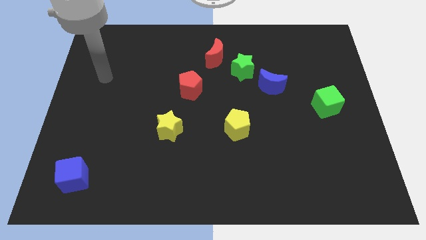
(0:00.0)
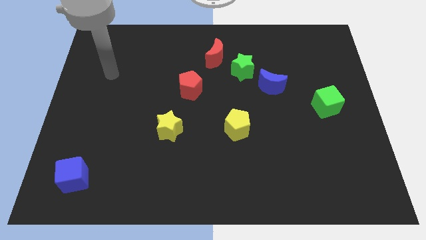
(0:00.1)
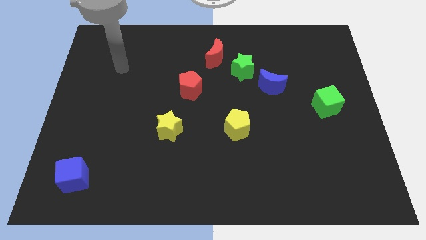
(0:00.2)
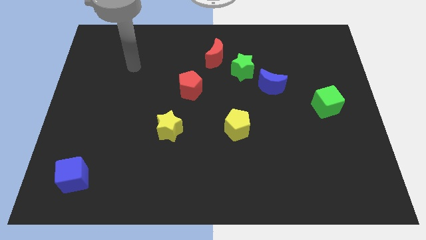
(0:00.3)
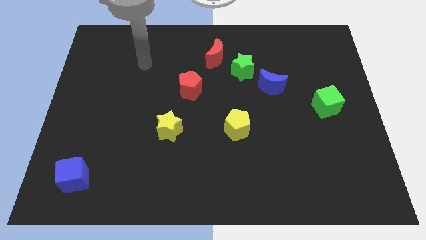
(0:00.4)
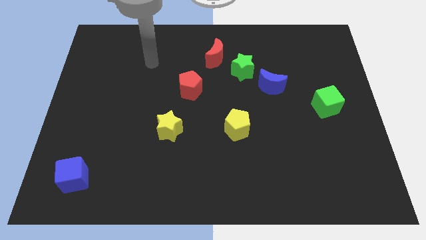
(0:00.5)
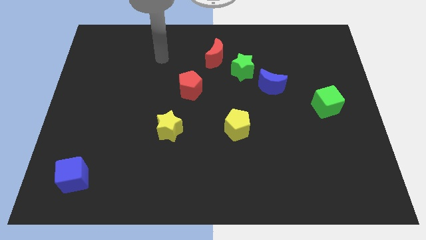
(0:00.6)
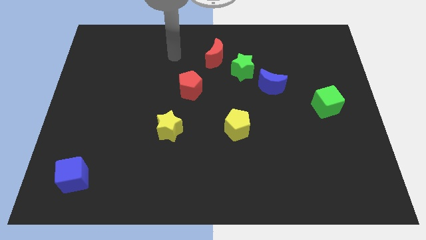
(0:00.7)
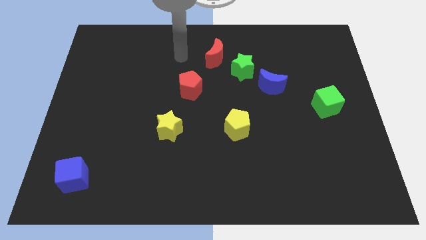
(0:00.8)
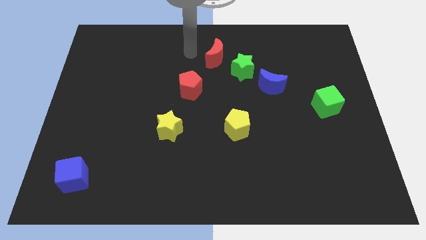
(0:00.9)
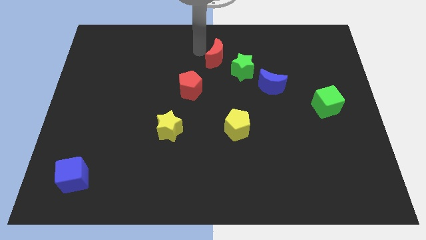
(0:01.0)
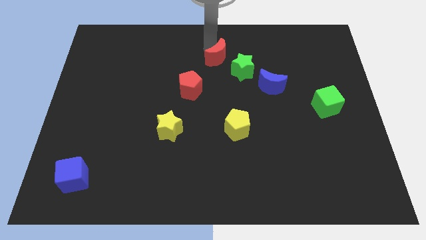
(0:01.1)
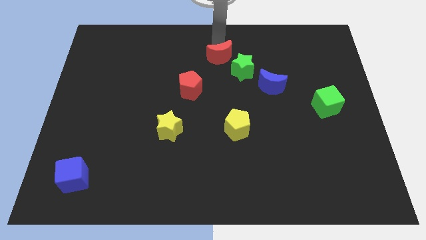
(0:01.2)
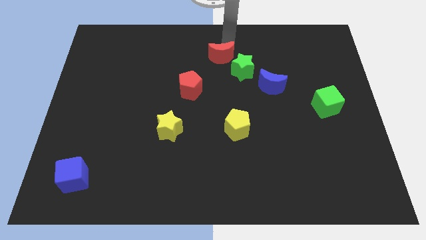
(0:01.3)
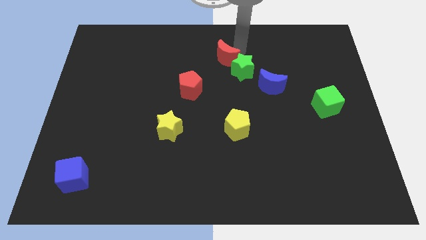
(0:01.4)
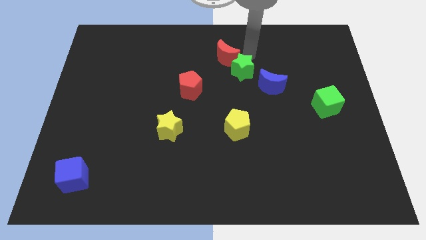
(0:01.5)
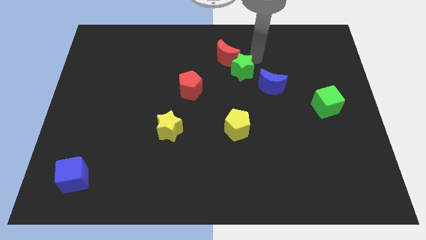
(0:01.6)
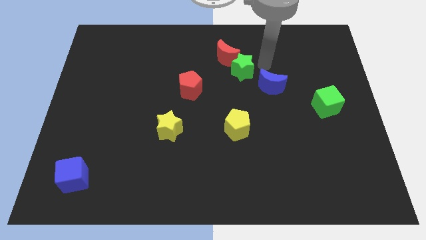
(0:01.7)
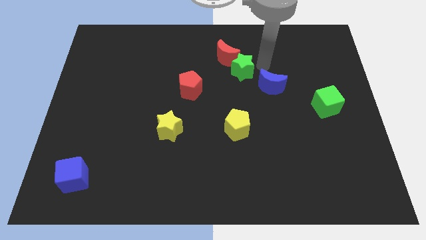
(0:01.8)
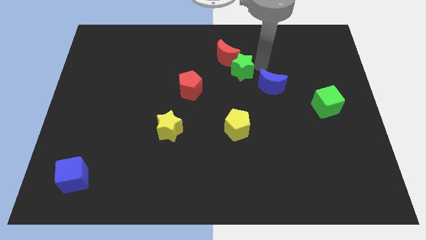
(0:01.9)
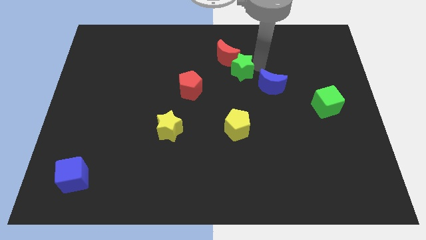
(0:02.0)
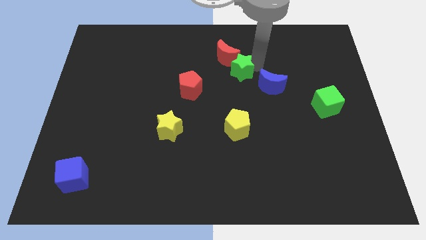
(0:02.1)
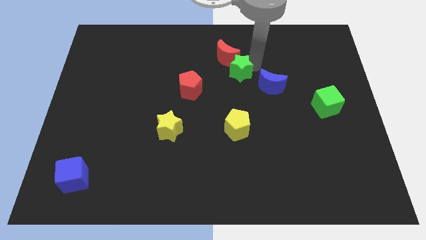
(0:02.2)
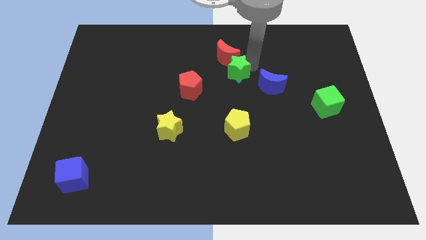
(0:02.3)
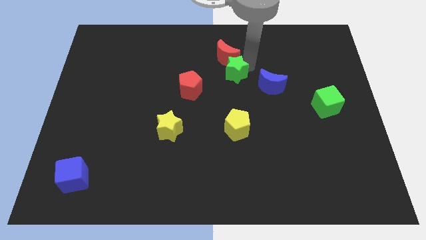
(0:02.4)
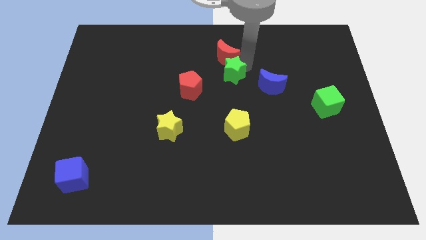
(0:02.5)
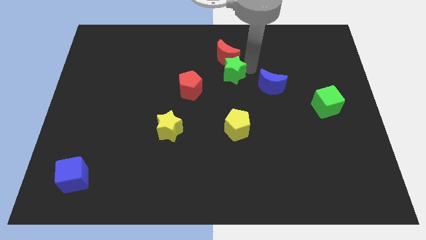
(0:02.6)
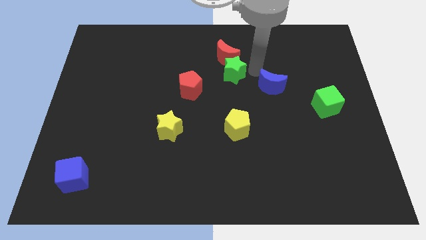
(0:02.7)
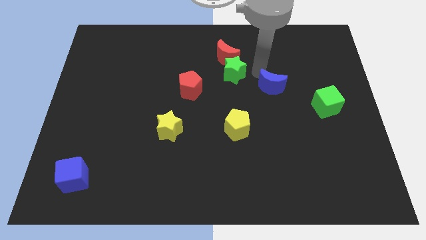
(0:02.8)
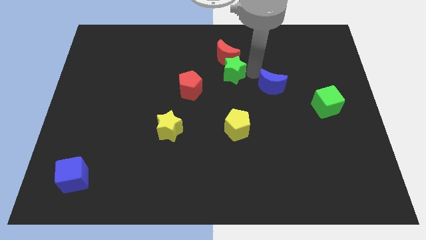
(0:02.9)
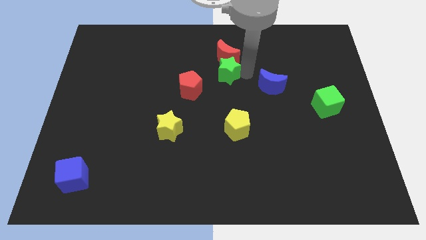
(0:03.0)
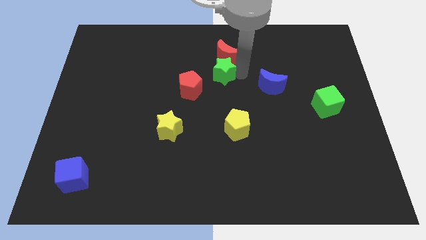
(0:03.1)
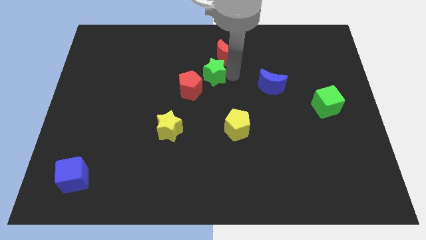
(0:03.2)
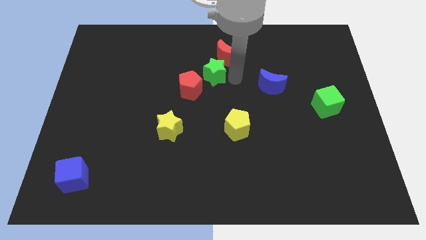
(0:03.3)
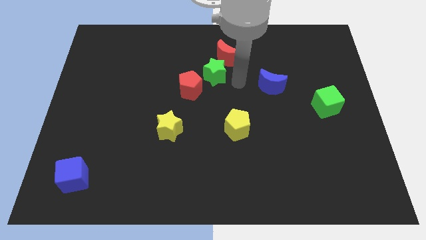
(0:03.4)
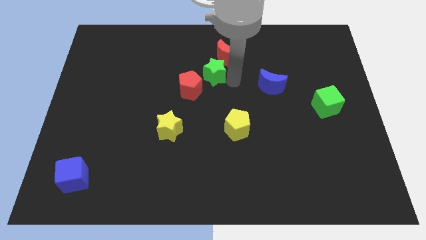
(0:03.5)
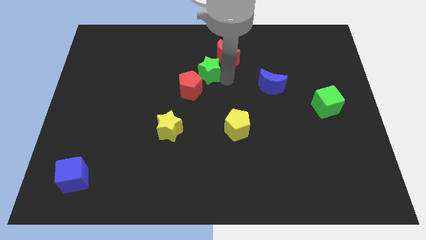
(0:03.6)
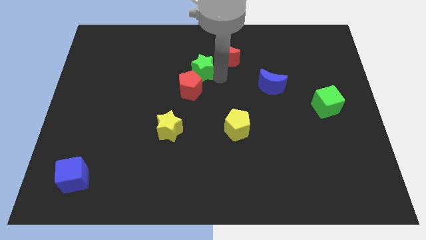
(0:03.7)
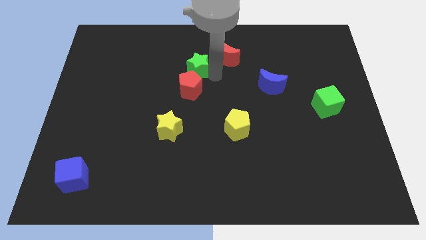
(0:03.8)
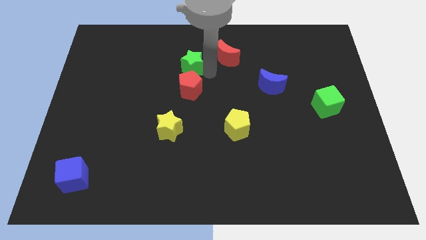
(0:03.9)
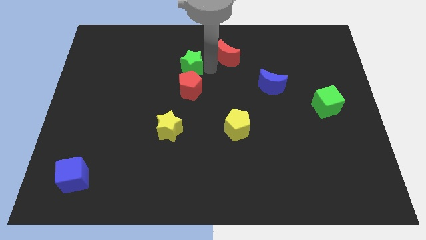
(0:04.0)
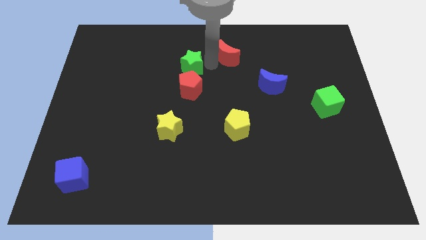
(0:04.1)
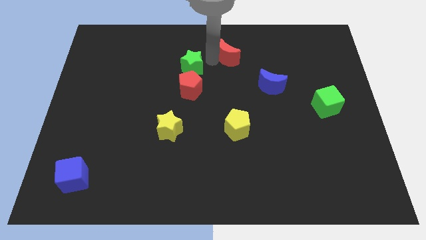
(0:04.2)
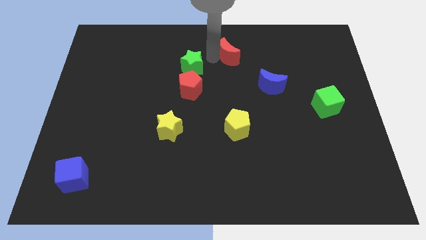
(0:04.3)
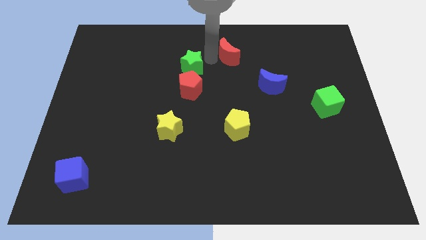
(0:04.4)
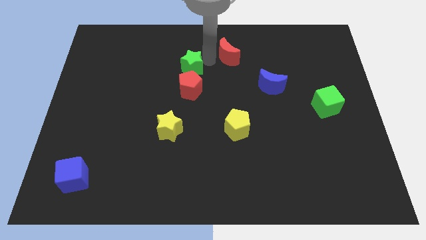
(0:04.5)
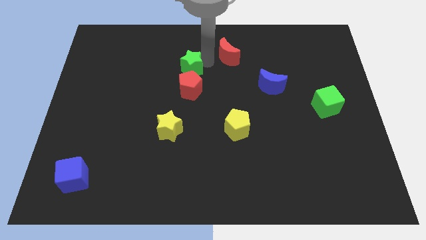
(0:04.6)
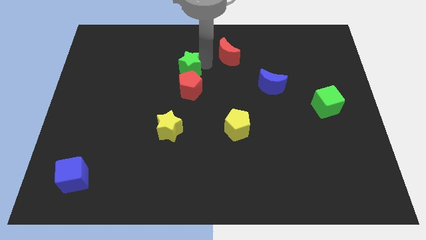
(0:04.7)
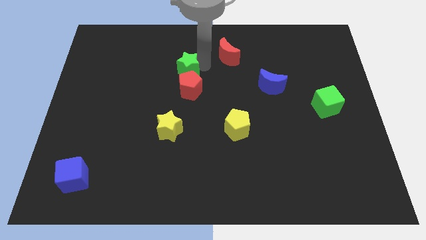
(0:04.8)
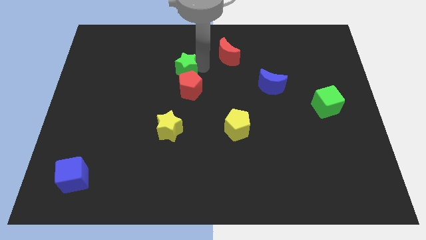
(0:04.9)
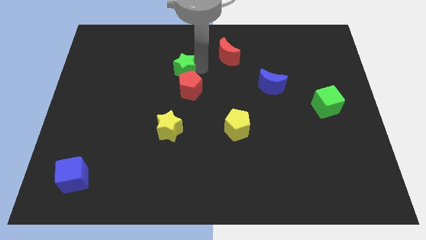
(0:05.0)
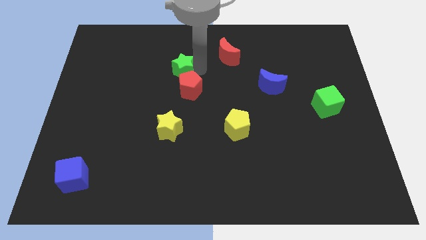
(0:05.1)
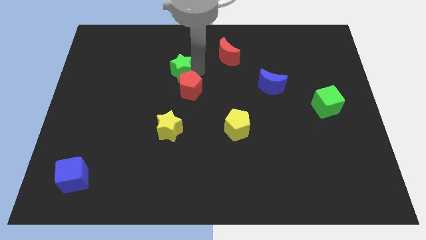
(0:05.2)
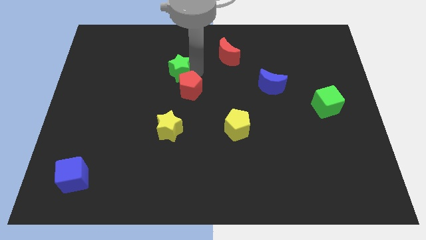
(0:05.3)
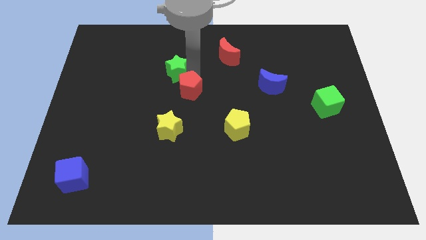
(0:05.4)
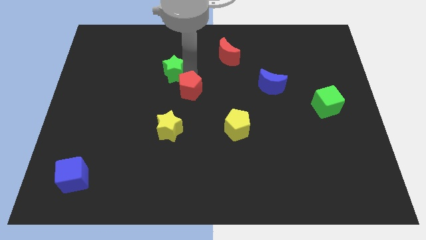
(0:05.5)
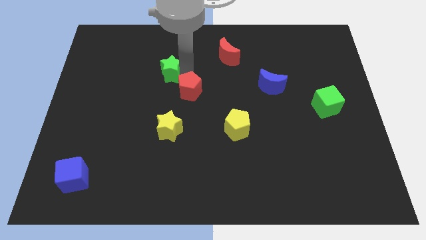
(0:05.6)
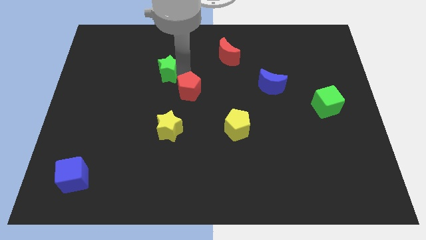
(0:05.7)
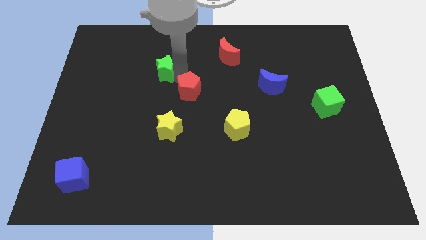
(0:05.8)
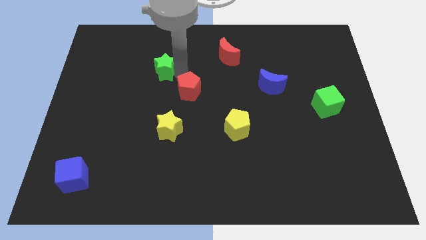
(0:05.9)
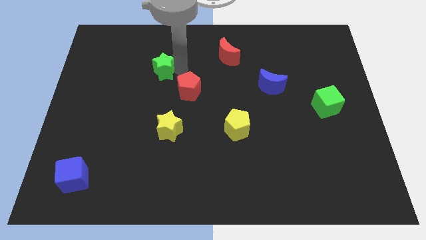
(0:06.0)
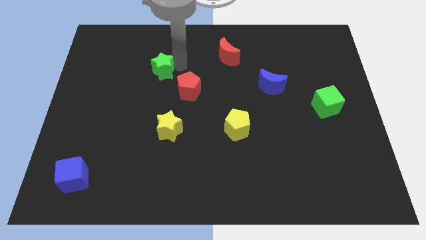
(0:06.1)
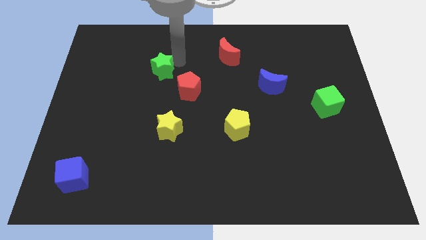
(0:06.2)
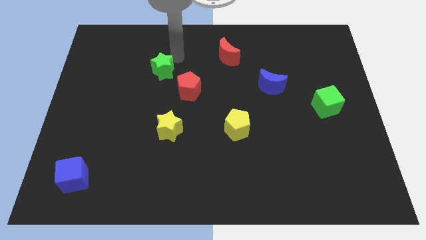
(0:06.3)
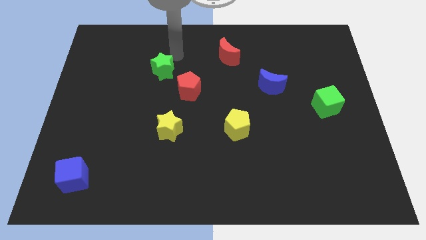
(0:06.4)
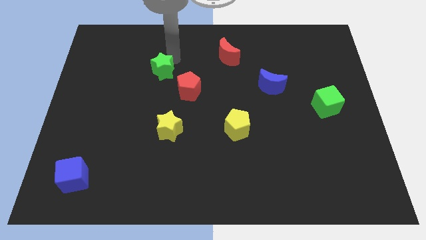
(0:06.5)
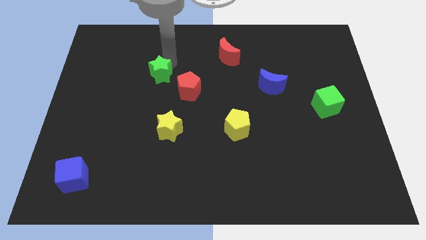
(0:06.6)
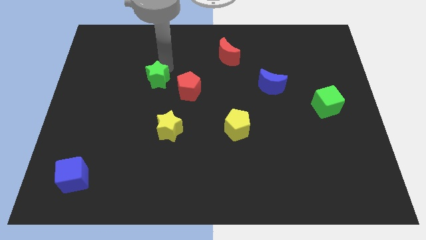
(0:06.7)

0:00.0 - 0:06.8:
move the green star to the left side of the red pentagon
